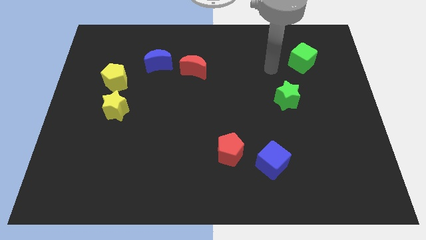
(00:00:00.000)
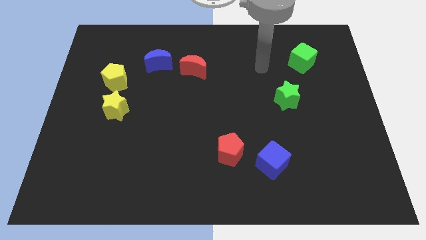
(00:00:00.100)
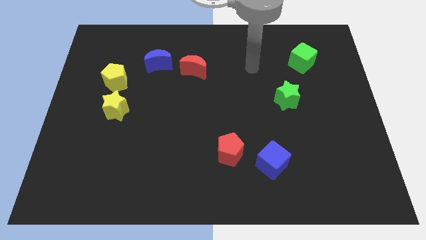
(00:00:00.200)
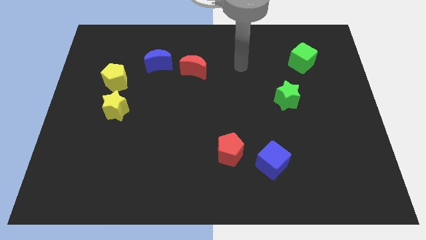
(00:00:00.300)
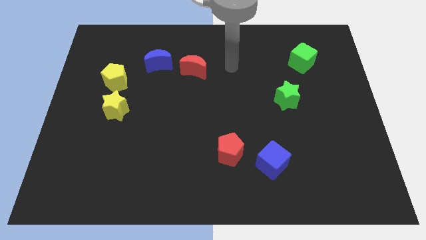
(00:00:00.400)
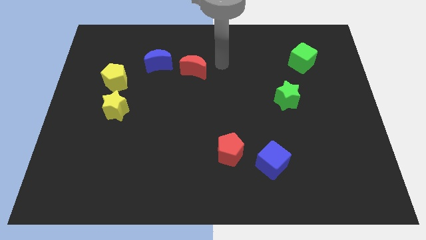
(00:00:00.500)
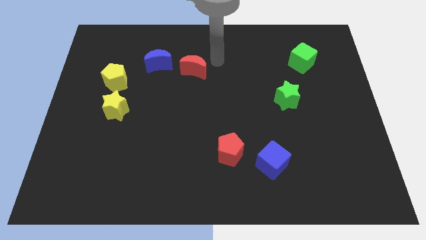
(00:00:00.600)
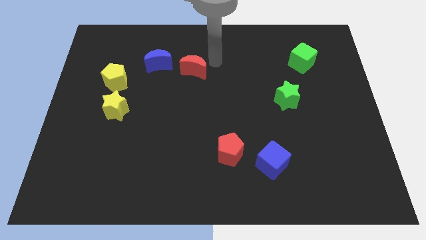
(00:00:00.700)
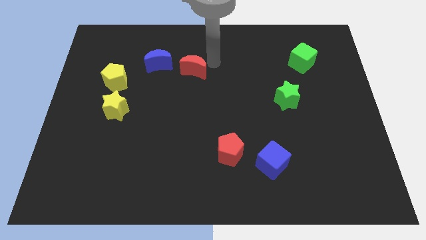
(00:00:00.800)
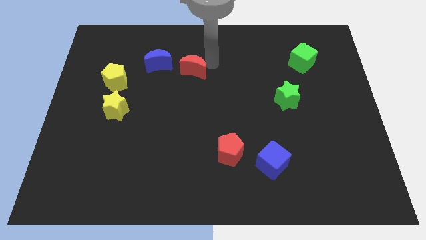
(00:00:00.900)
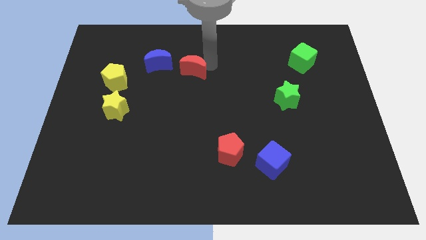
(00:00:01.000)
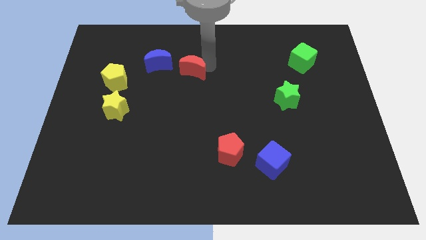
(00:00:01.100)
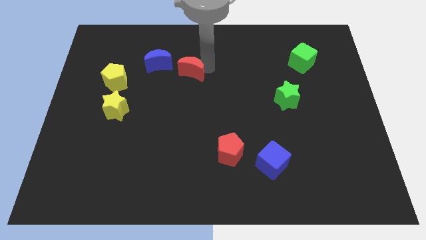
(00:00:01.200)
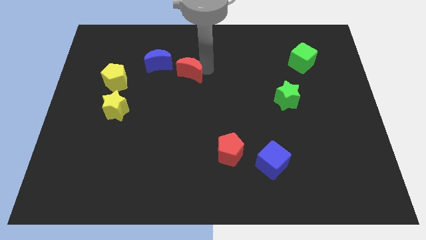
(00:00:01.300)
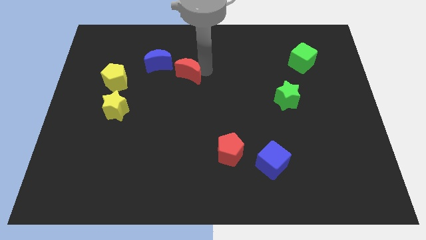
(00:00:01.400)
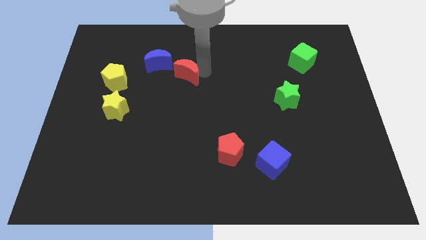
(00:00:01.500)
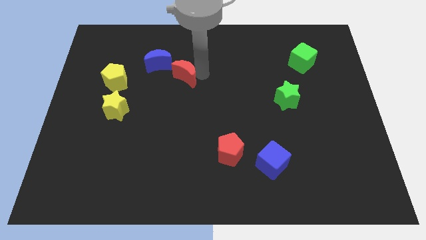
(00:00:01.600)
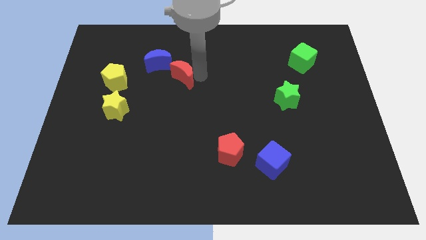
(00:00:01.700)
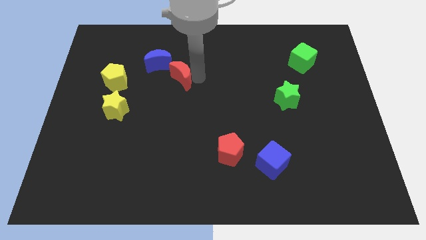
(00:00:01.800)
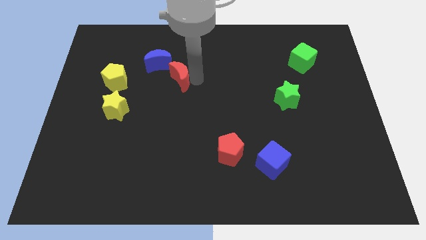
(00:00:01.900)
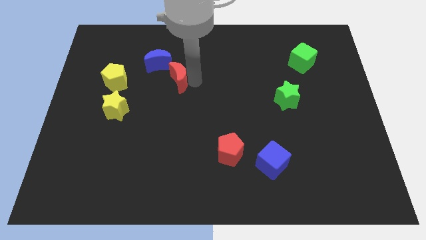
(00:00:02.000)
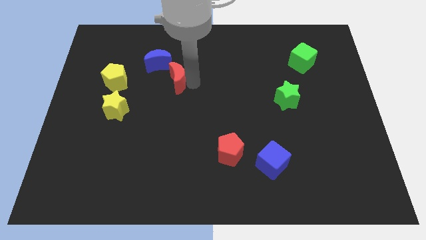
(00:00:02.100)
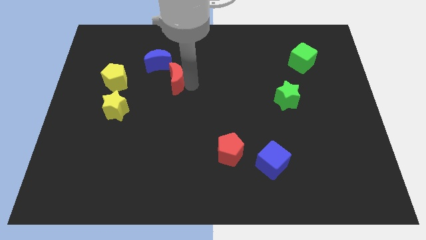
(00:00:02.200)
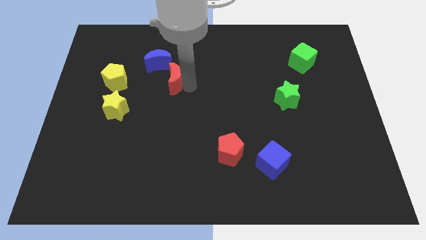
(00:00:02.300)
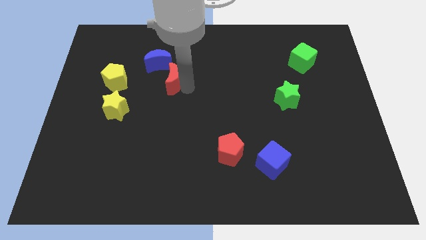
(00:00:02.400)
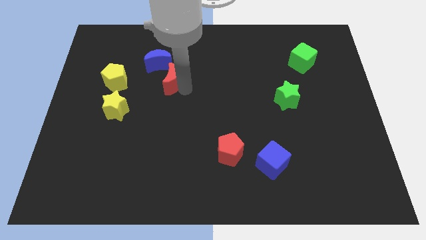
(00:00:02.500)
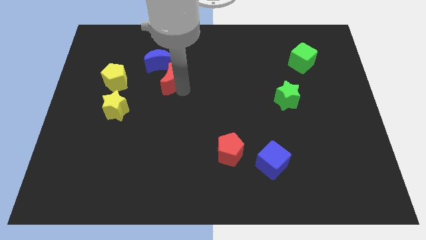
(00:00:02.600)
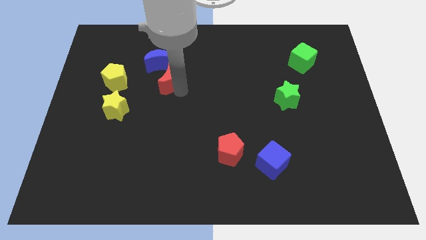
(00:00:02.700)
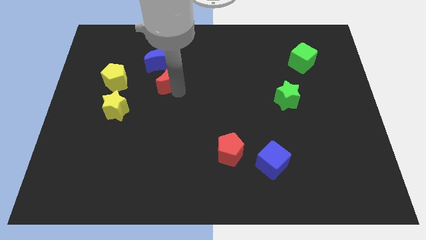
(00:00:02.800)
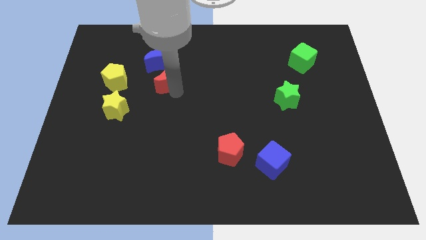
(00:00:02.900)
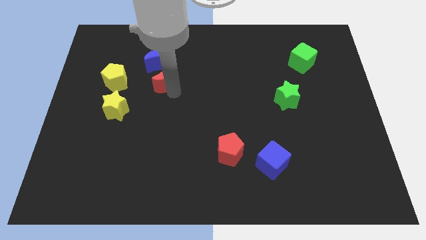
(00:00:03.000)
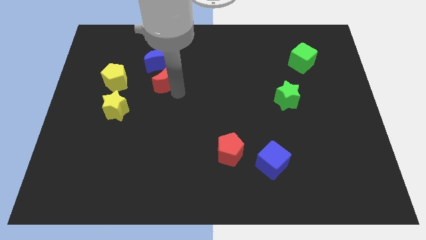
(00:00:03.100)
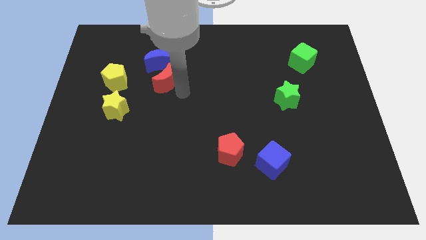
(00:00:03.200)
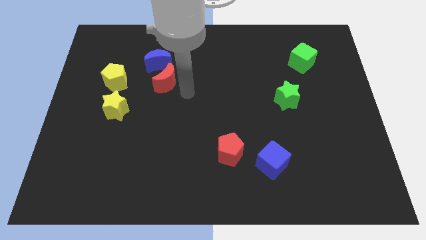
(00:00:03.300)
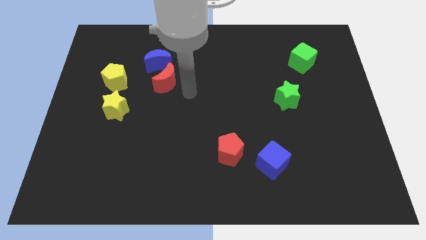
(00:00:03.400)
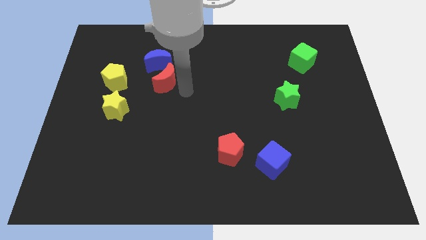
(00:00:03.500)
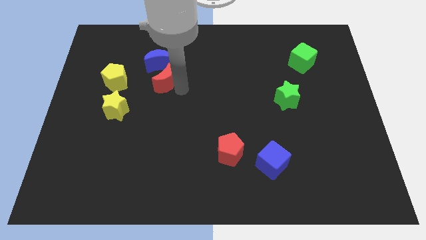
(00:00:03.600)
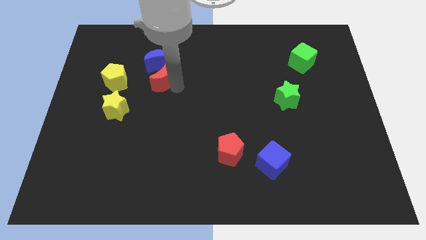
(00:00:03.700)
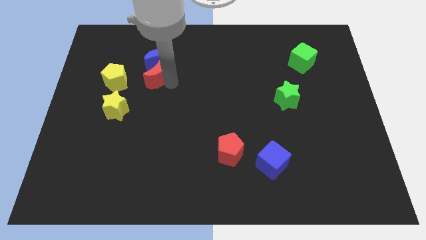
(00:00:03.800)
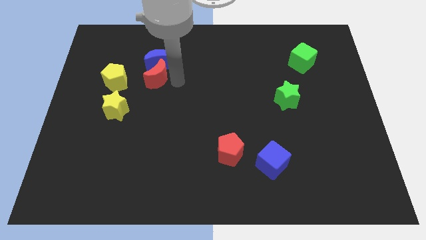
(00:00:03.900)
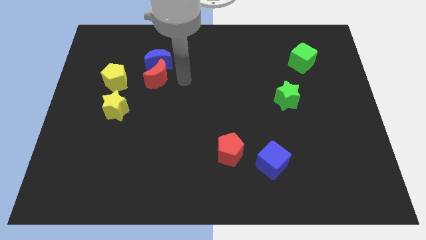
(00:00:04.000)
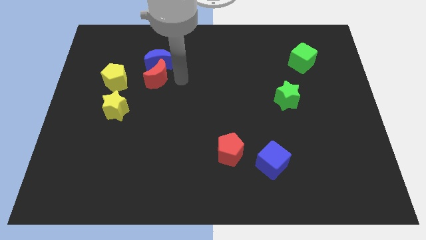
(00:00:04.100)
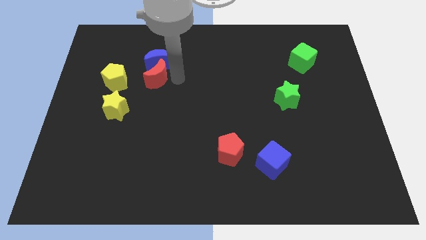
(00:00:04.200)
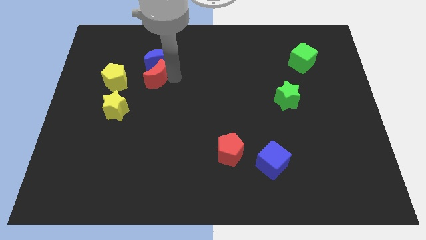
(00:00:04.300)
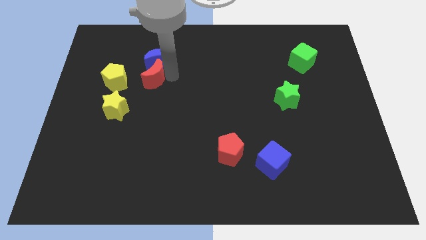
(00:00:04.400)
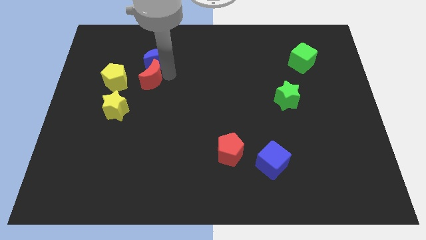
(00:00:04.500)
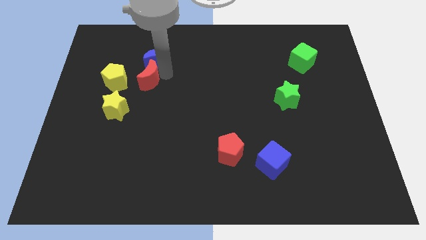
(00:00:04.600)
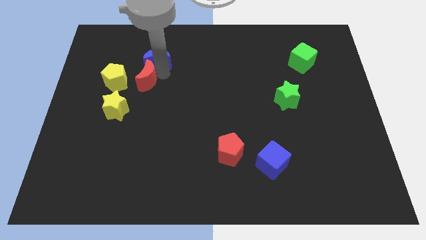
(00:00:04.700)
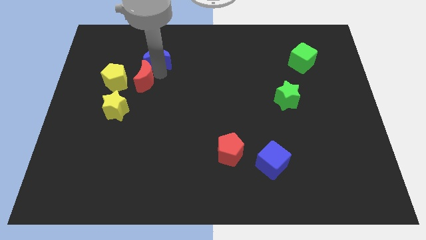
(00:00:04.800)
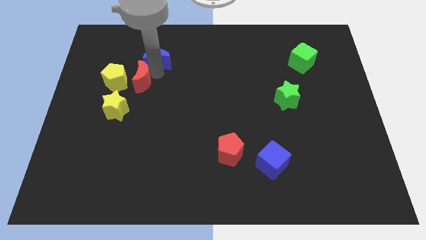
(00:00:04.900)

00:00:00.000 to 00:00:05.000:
push the red moon above the yellow star

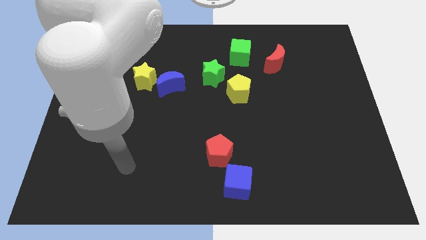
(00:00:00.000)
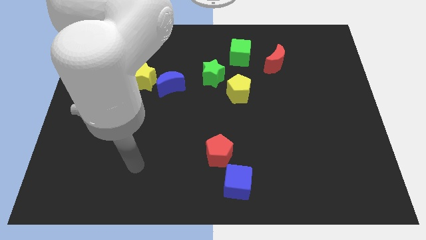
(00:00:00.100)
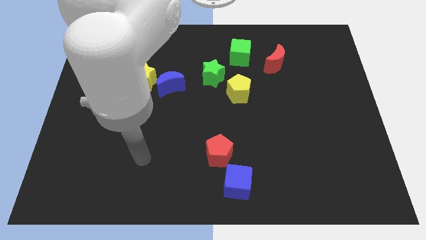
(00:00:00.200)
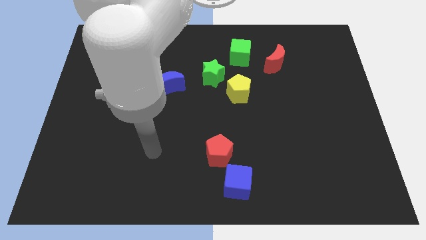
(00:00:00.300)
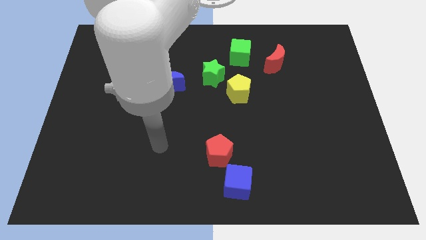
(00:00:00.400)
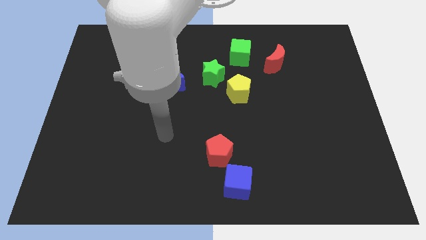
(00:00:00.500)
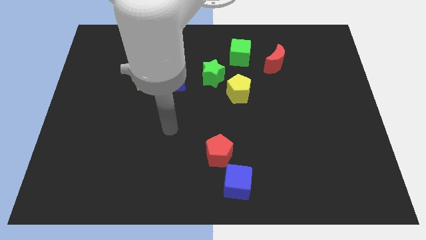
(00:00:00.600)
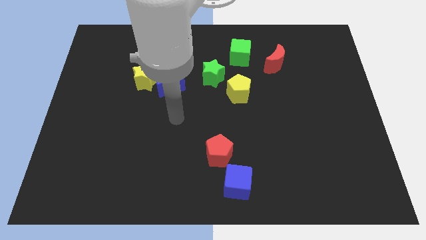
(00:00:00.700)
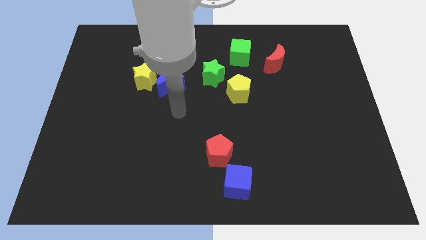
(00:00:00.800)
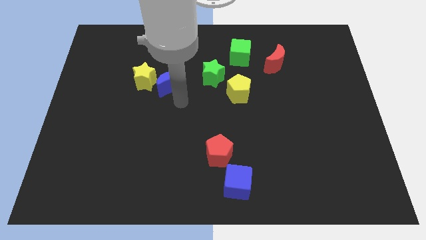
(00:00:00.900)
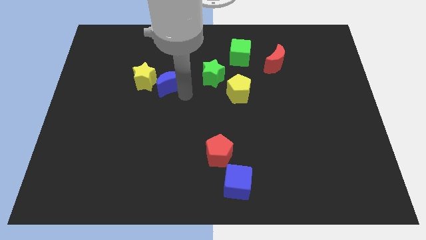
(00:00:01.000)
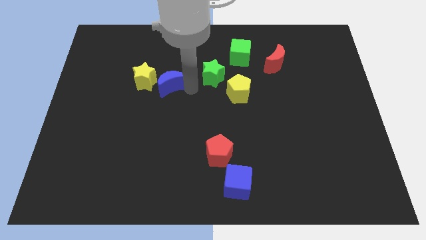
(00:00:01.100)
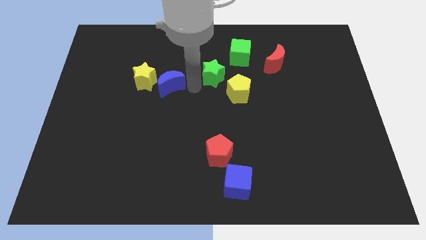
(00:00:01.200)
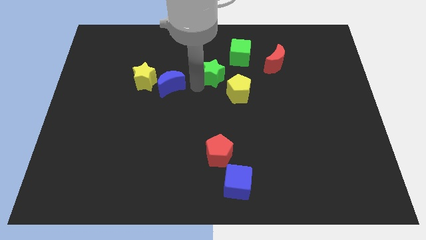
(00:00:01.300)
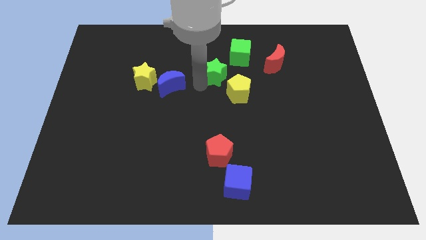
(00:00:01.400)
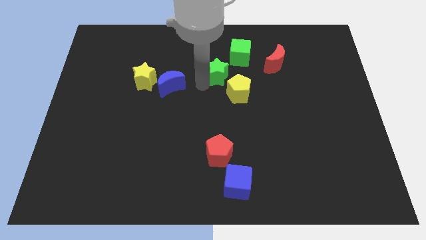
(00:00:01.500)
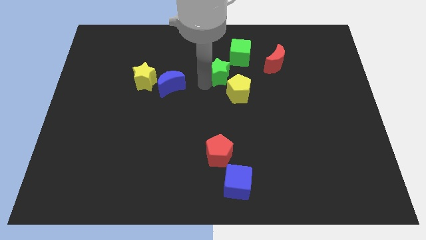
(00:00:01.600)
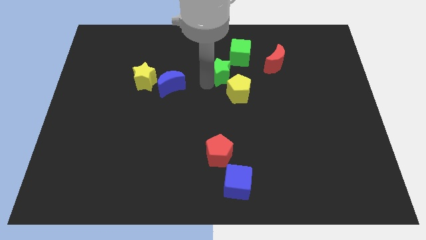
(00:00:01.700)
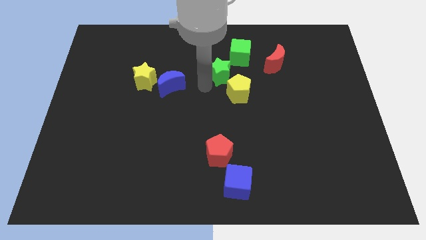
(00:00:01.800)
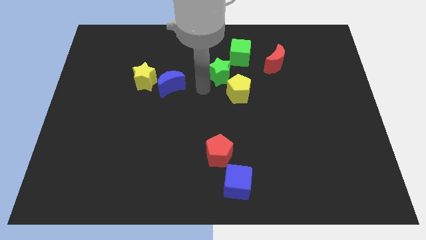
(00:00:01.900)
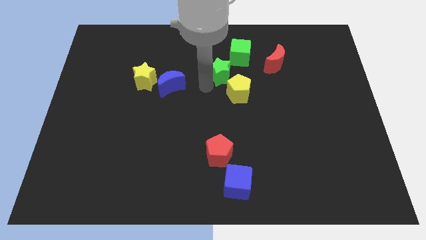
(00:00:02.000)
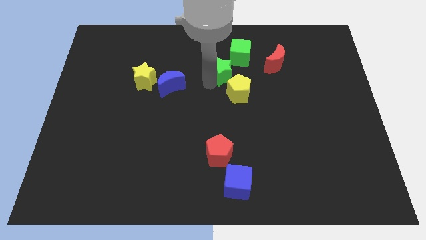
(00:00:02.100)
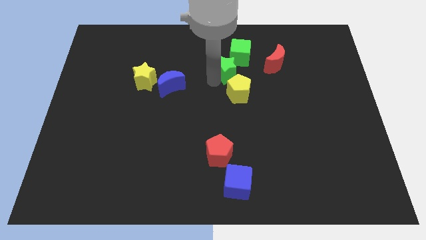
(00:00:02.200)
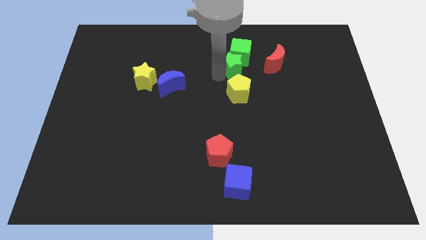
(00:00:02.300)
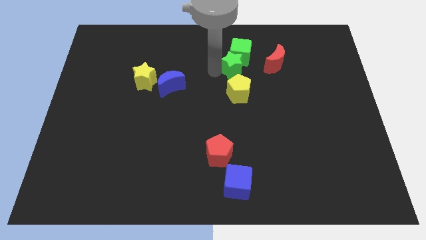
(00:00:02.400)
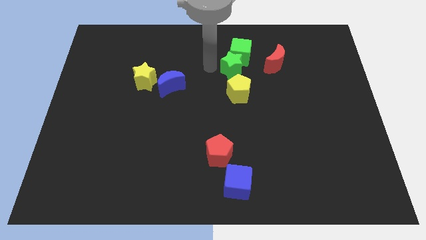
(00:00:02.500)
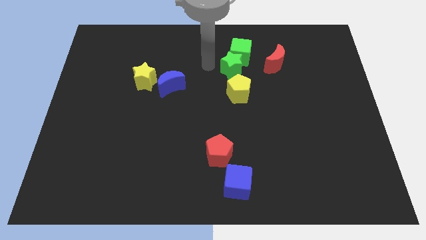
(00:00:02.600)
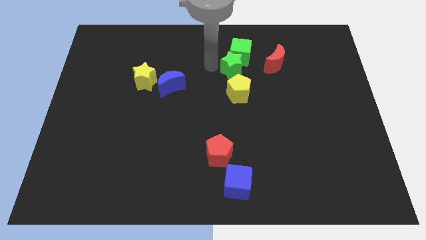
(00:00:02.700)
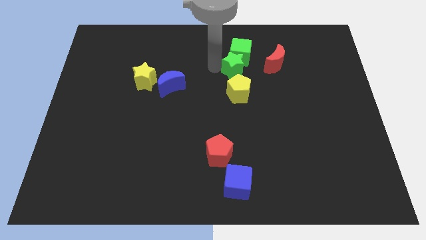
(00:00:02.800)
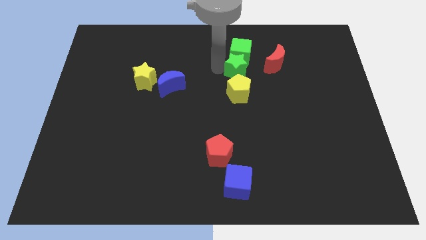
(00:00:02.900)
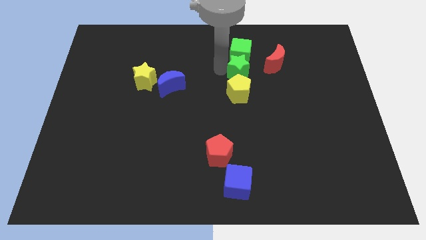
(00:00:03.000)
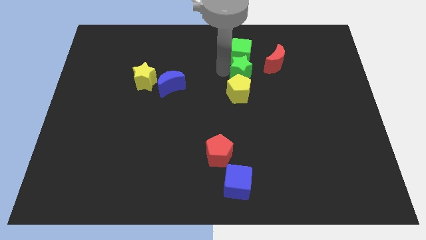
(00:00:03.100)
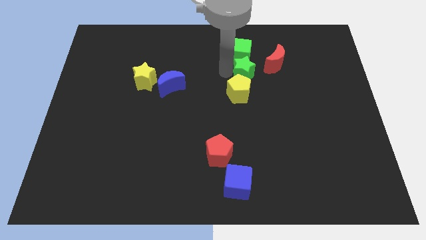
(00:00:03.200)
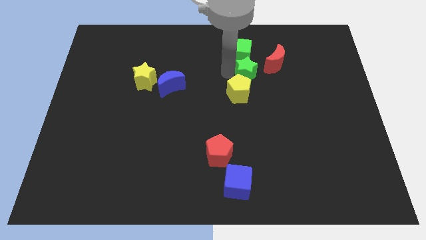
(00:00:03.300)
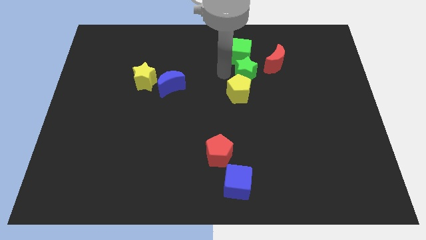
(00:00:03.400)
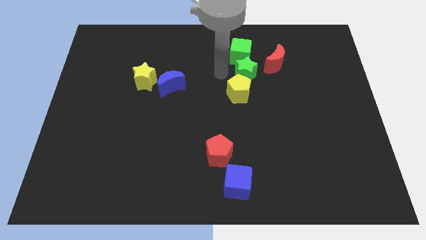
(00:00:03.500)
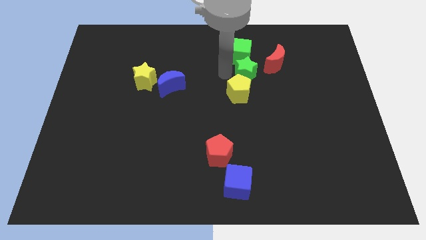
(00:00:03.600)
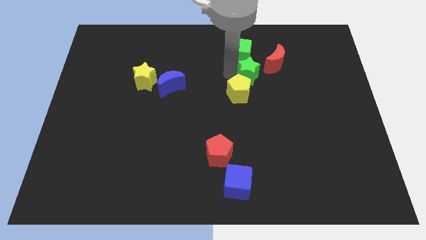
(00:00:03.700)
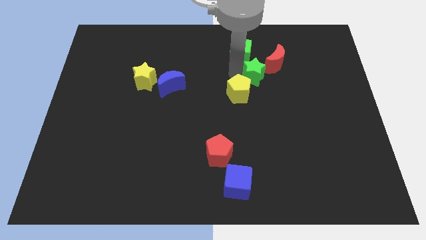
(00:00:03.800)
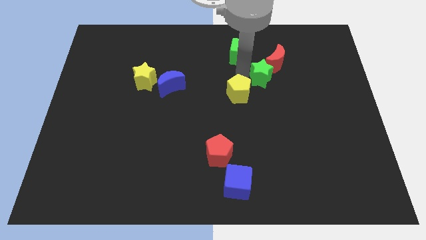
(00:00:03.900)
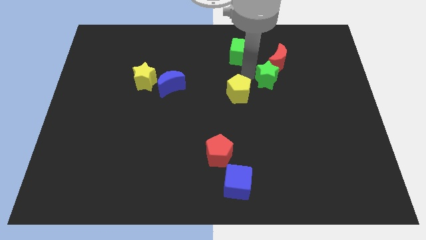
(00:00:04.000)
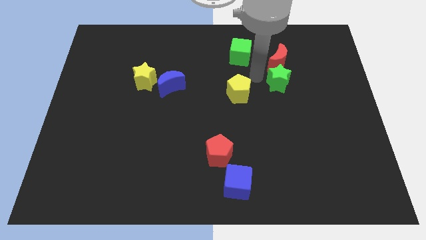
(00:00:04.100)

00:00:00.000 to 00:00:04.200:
slide the green star to the bottom right side of the red moon
